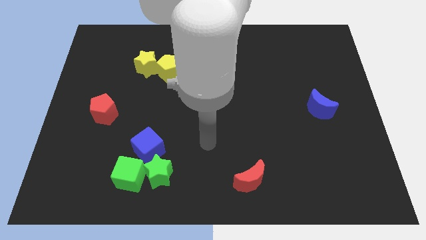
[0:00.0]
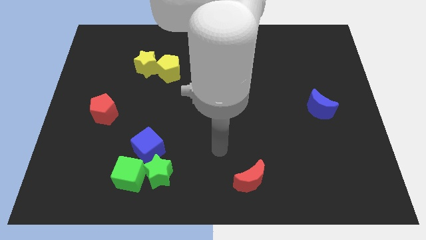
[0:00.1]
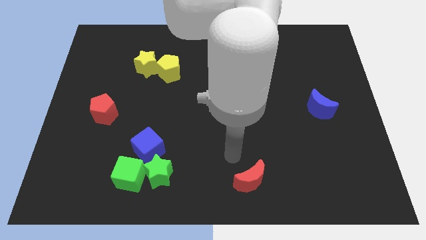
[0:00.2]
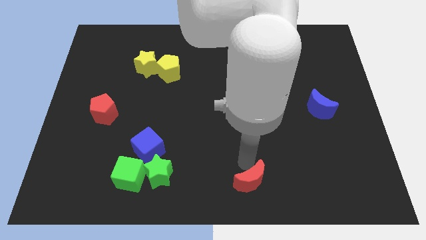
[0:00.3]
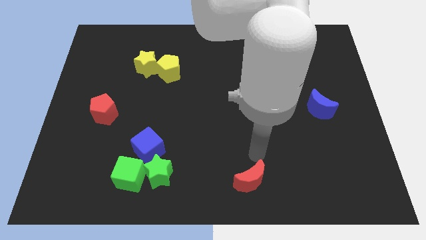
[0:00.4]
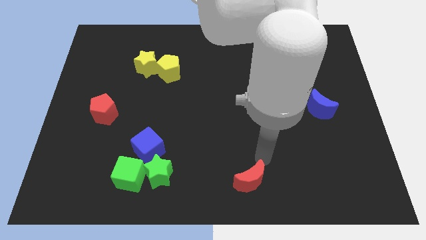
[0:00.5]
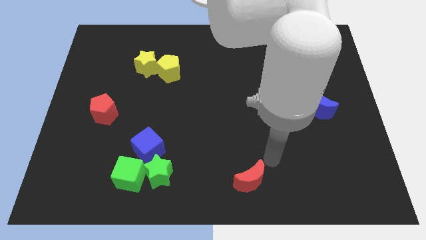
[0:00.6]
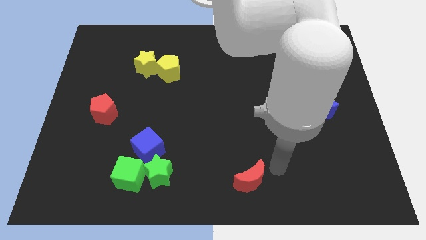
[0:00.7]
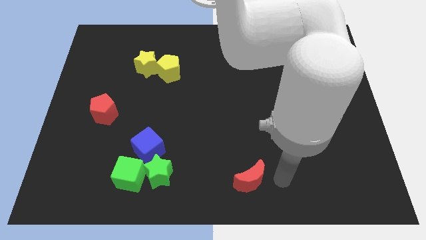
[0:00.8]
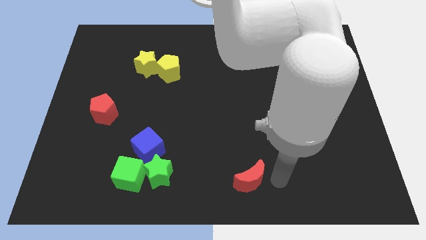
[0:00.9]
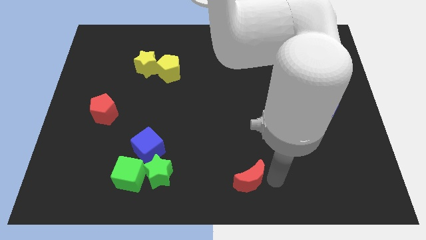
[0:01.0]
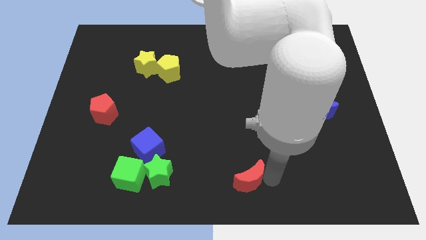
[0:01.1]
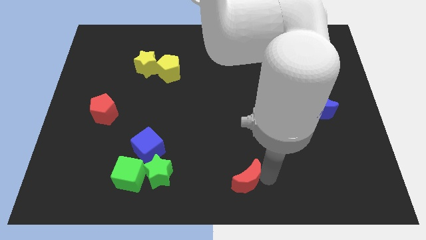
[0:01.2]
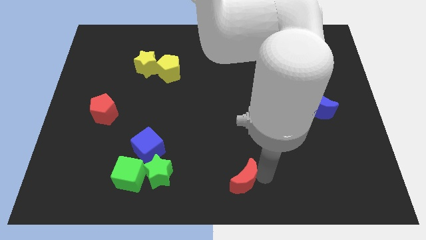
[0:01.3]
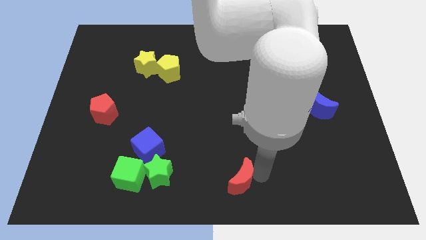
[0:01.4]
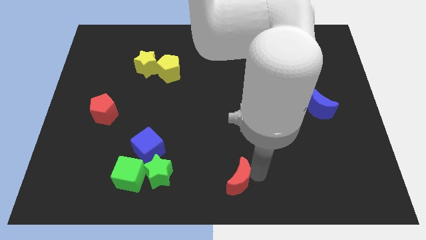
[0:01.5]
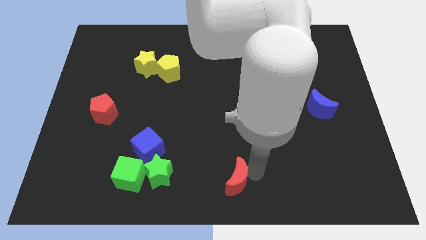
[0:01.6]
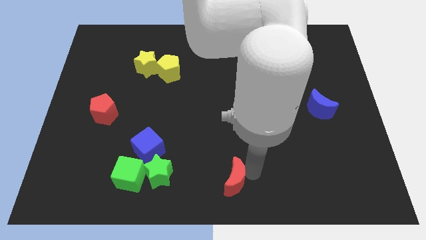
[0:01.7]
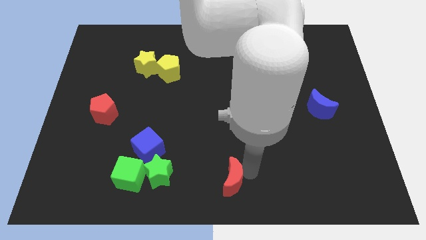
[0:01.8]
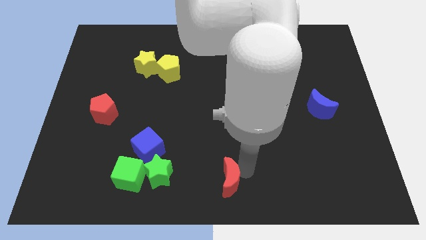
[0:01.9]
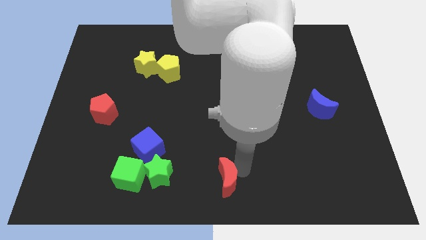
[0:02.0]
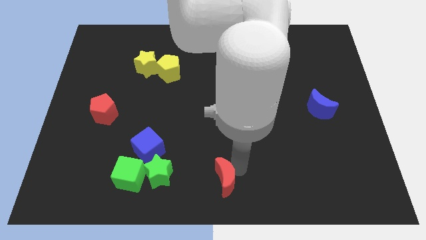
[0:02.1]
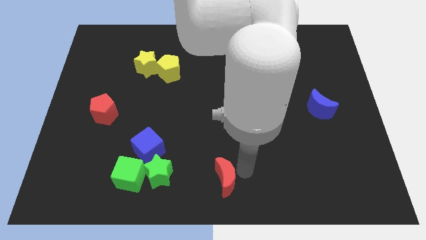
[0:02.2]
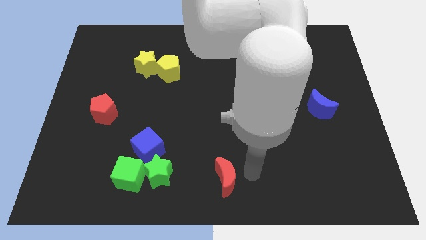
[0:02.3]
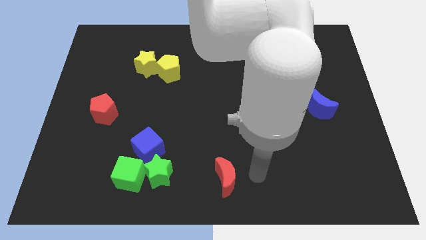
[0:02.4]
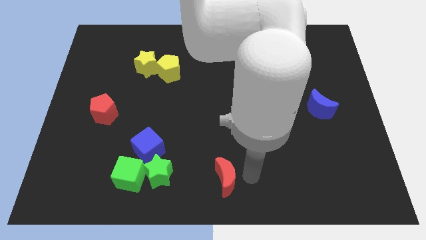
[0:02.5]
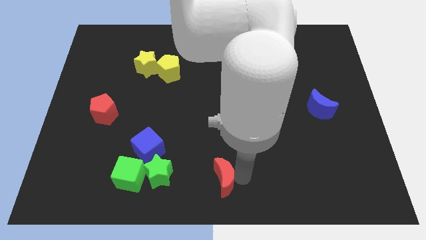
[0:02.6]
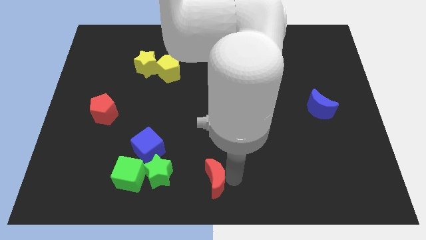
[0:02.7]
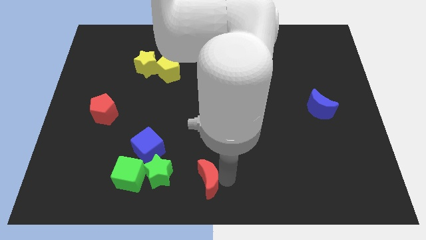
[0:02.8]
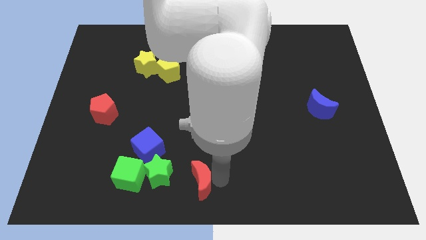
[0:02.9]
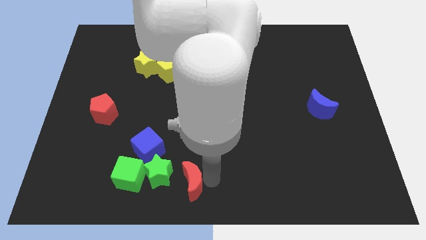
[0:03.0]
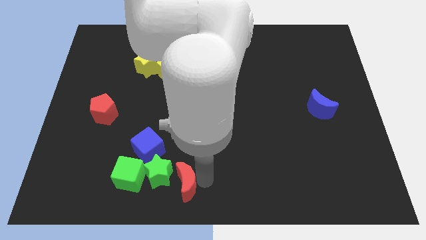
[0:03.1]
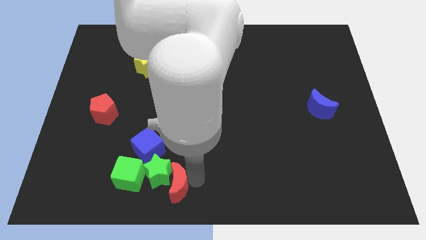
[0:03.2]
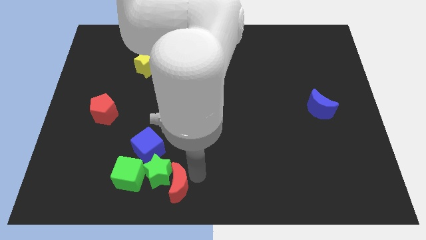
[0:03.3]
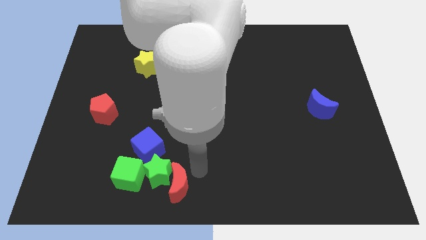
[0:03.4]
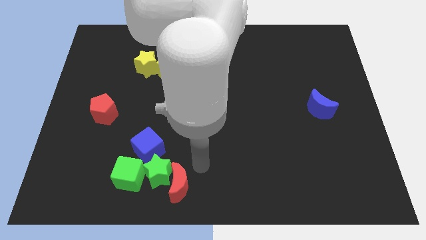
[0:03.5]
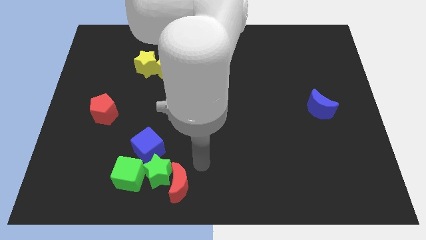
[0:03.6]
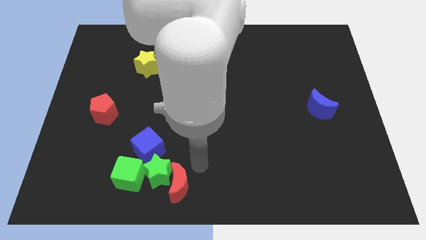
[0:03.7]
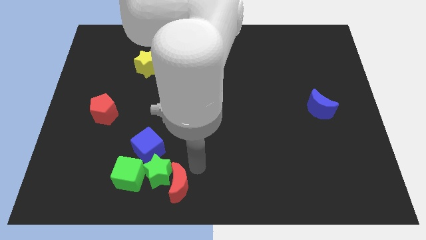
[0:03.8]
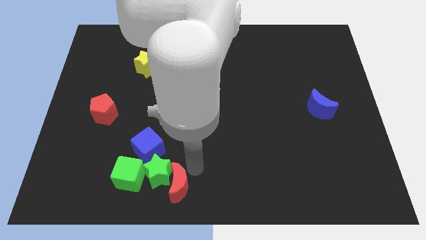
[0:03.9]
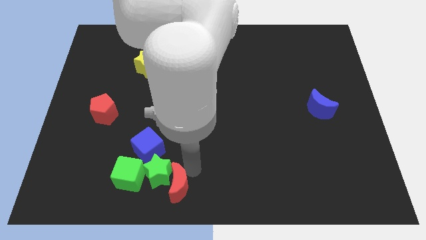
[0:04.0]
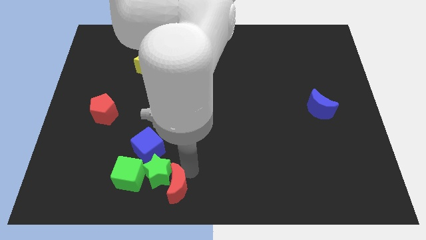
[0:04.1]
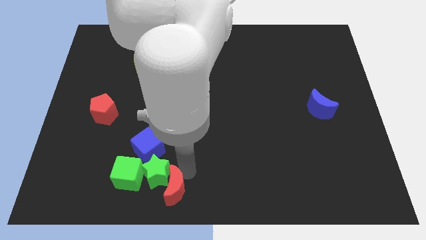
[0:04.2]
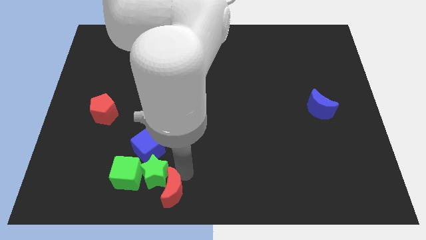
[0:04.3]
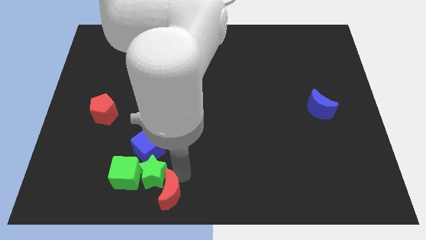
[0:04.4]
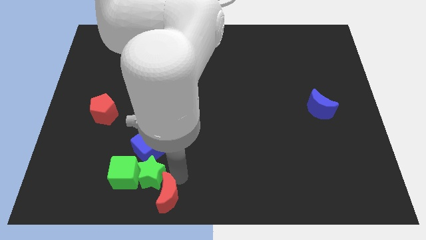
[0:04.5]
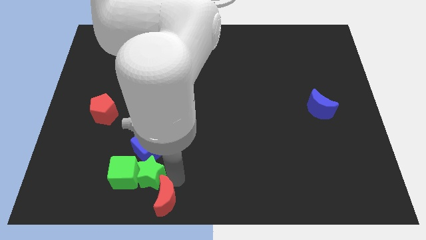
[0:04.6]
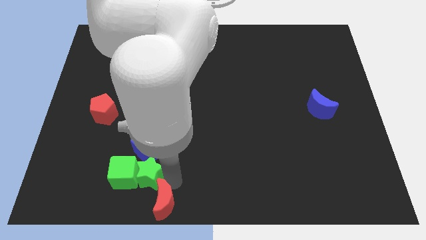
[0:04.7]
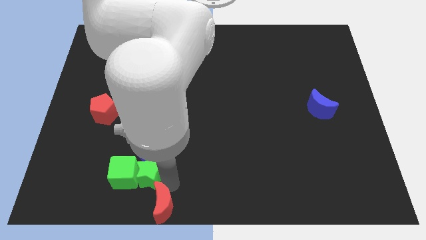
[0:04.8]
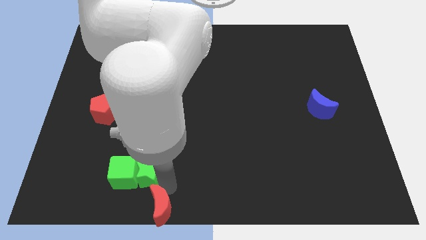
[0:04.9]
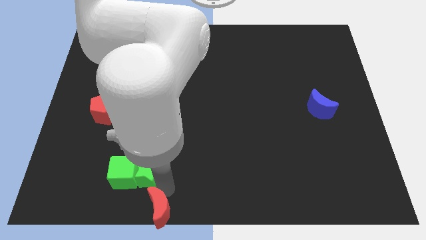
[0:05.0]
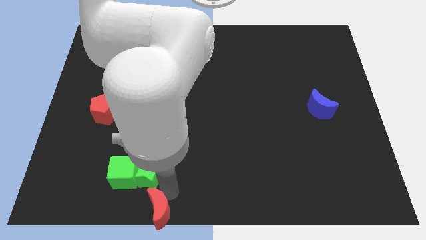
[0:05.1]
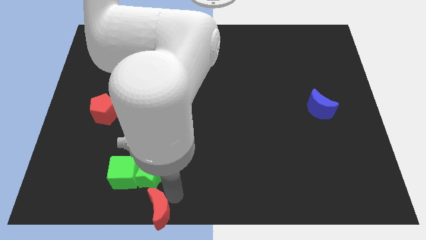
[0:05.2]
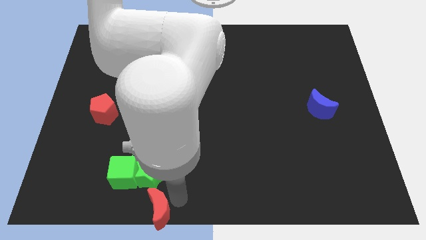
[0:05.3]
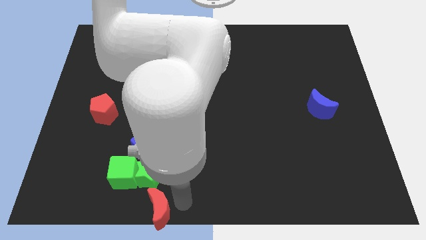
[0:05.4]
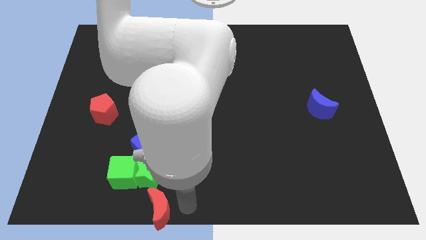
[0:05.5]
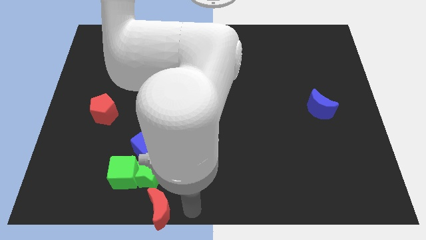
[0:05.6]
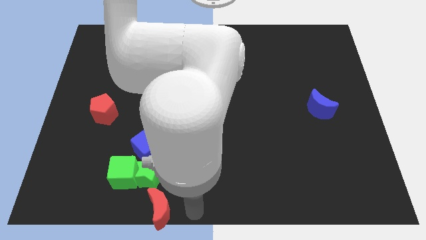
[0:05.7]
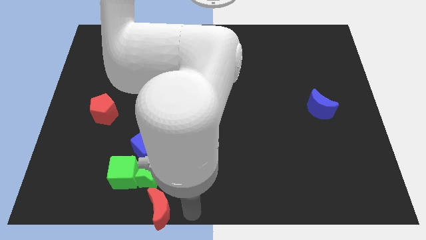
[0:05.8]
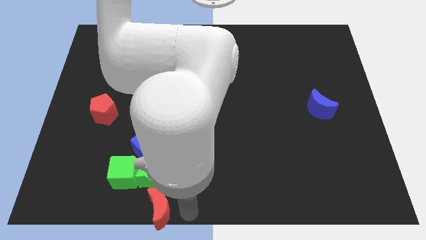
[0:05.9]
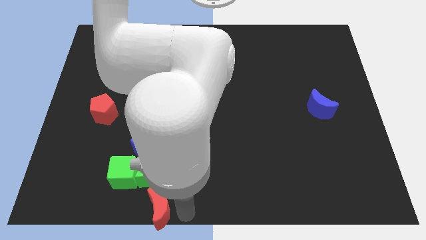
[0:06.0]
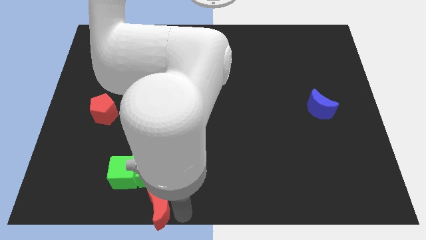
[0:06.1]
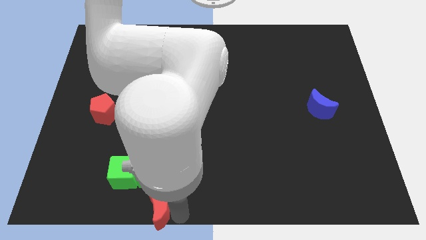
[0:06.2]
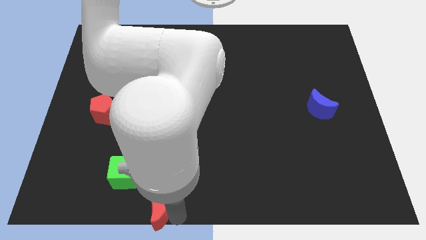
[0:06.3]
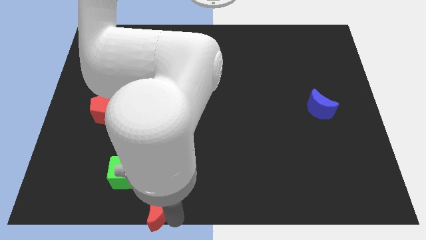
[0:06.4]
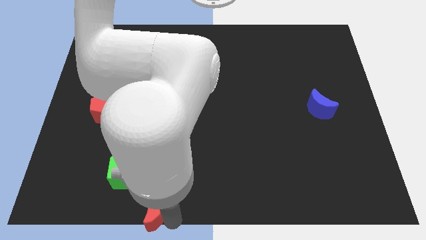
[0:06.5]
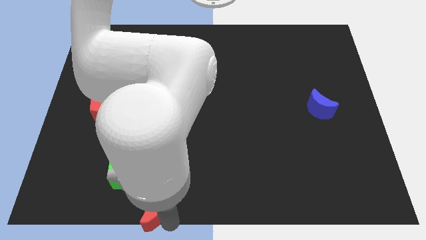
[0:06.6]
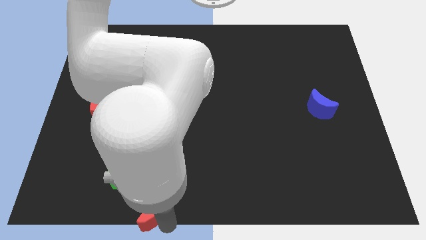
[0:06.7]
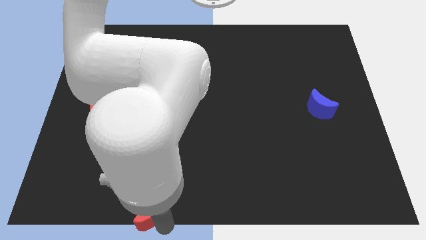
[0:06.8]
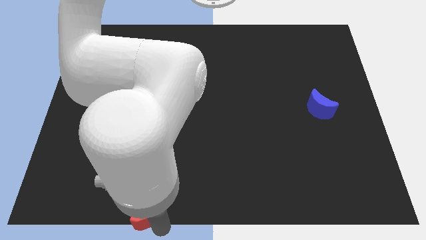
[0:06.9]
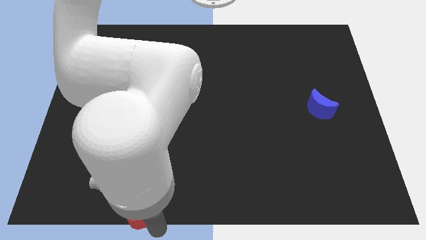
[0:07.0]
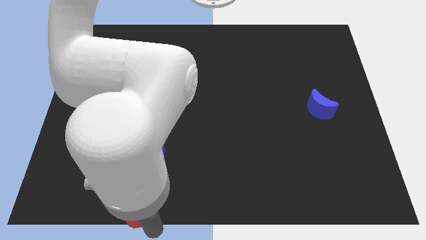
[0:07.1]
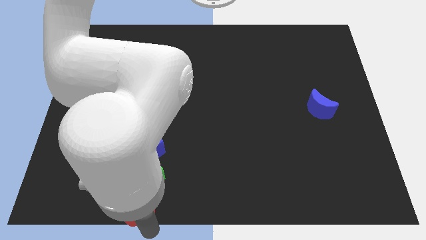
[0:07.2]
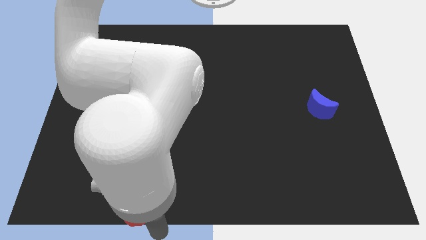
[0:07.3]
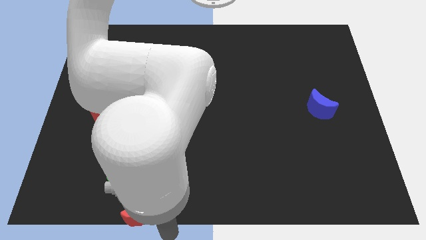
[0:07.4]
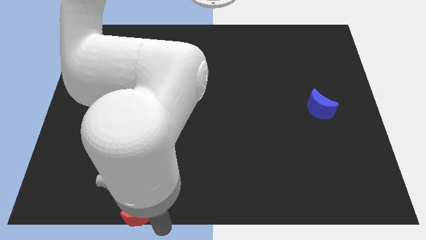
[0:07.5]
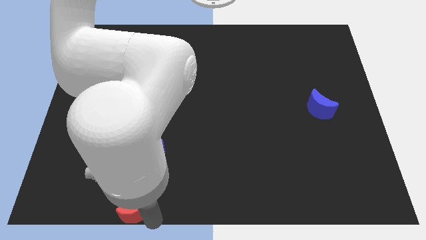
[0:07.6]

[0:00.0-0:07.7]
push the red moon left

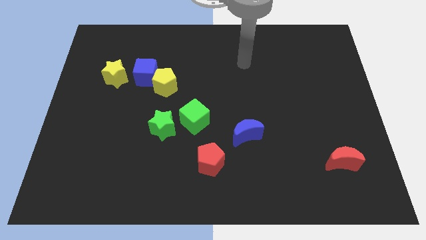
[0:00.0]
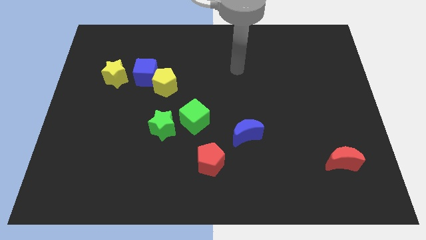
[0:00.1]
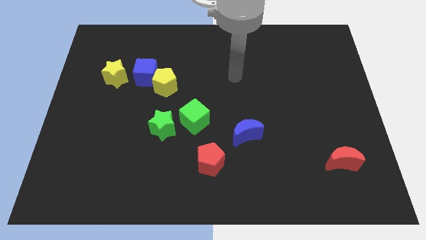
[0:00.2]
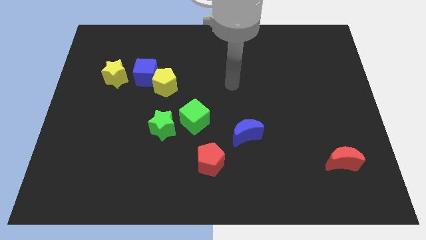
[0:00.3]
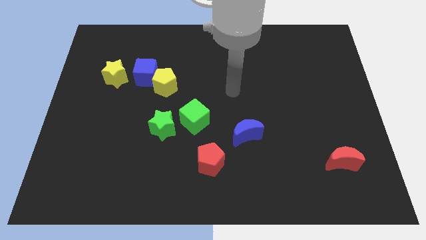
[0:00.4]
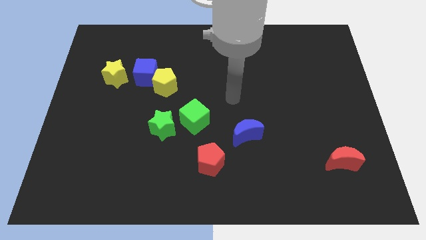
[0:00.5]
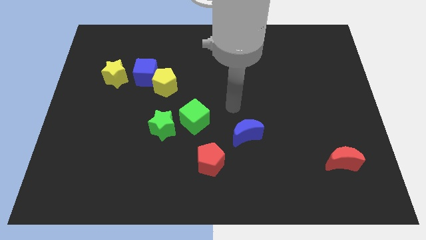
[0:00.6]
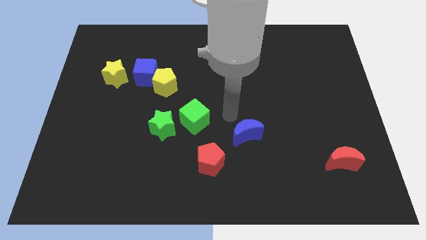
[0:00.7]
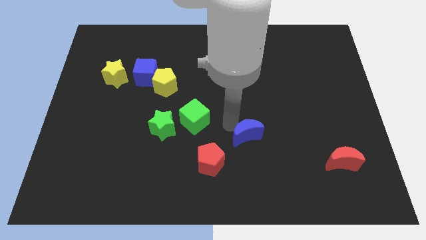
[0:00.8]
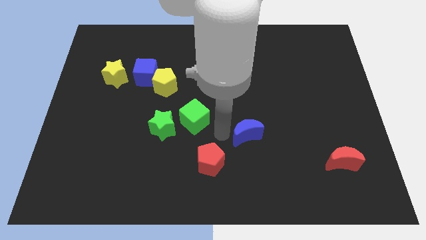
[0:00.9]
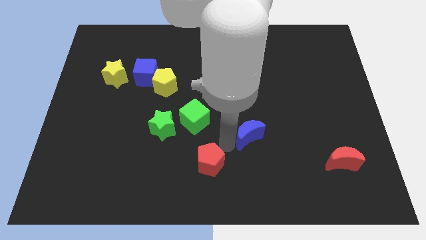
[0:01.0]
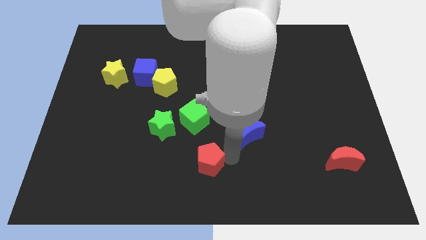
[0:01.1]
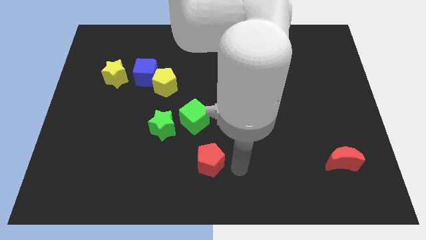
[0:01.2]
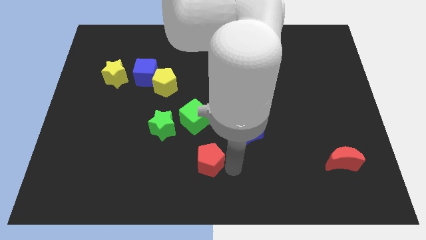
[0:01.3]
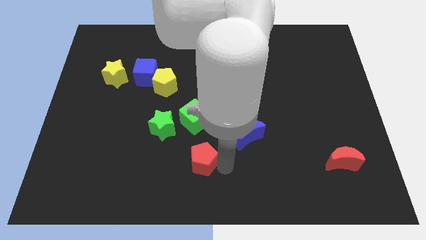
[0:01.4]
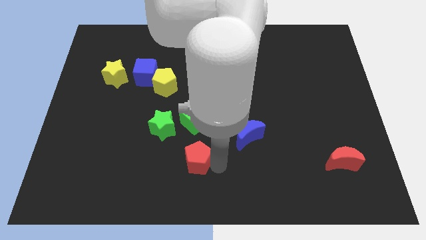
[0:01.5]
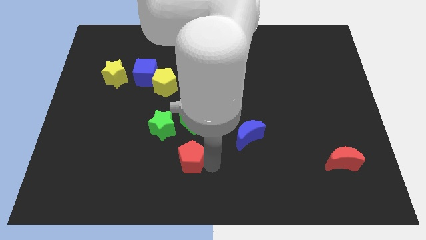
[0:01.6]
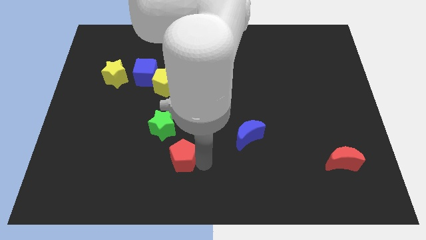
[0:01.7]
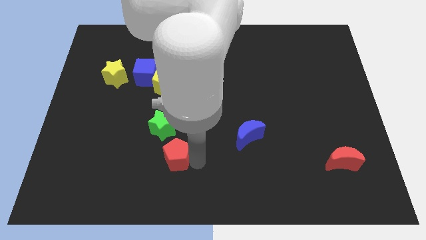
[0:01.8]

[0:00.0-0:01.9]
slide the red pentagon left a bit
